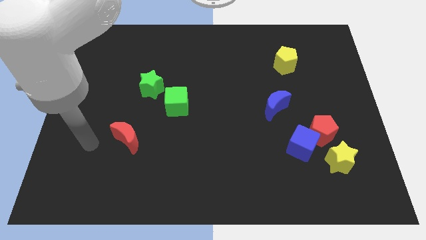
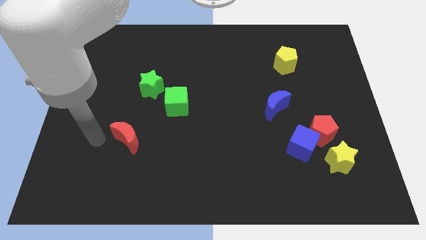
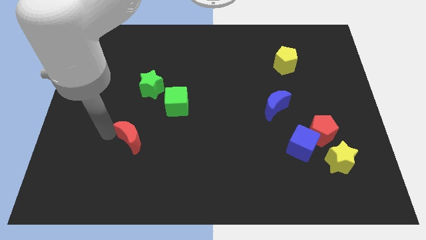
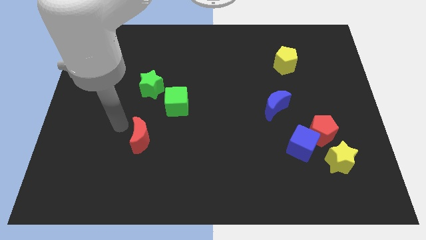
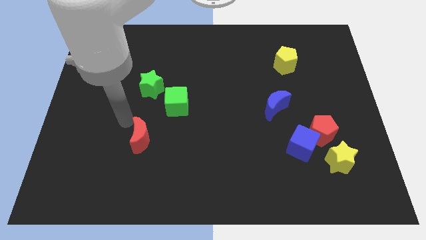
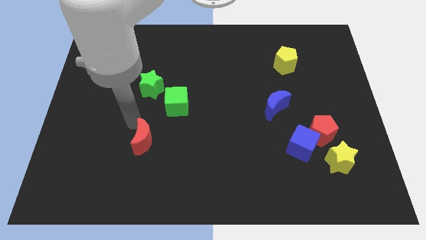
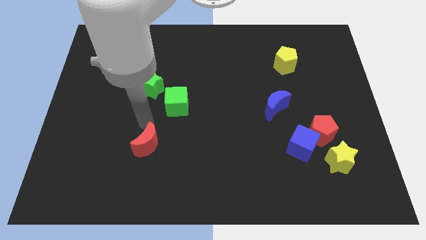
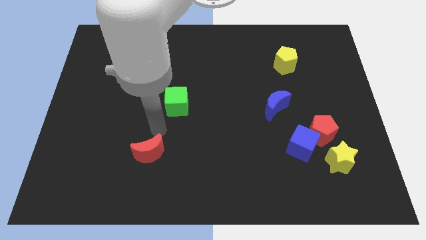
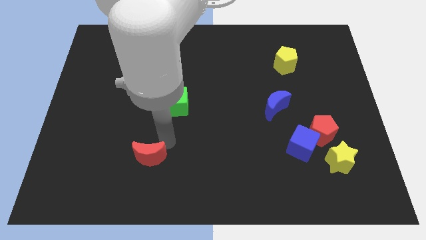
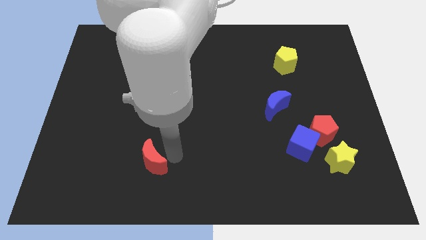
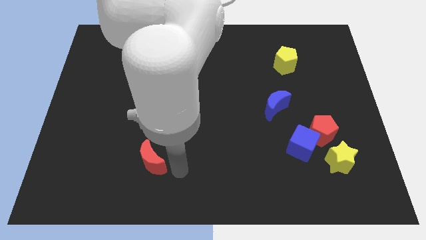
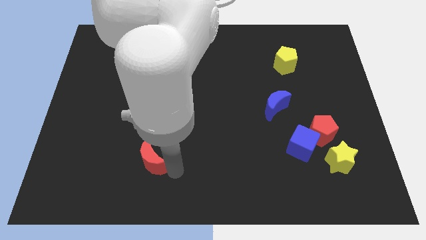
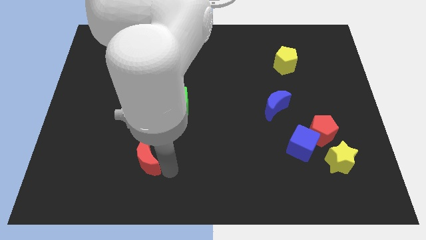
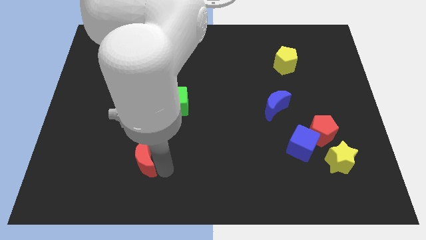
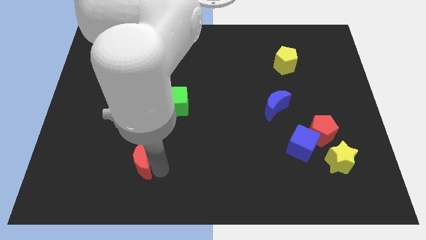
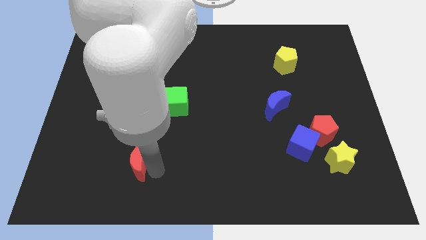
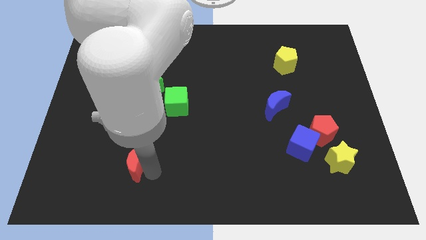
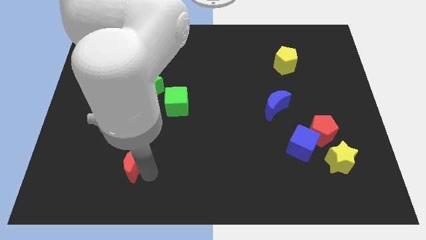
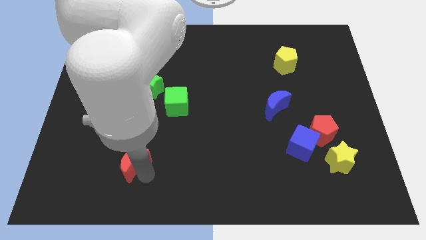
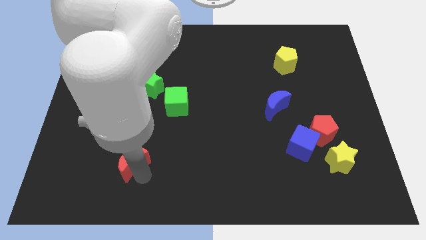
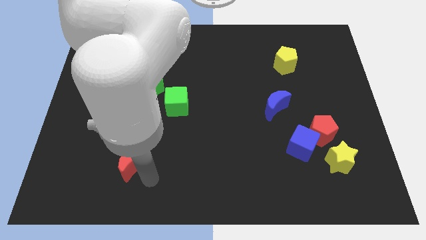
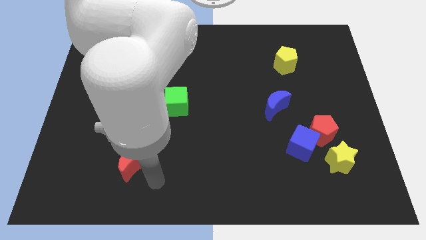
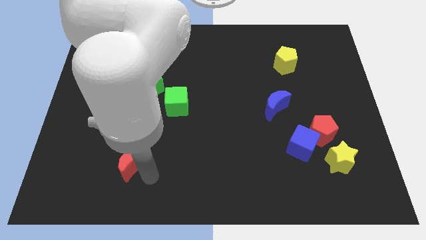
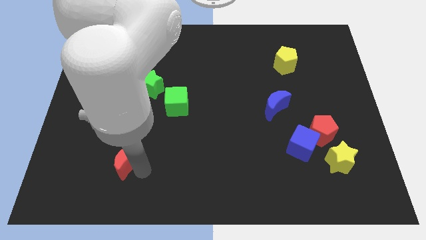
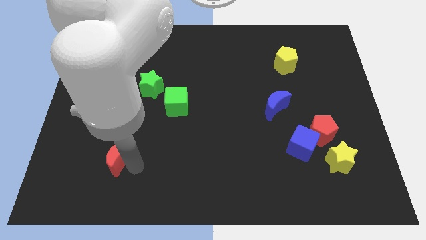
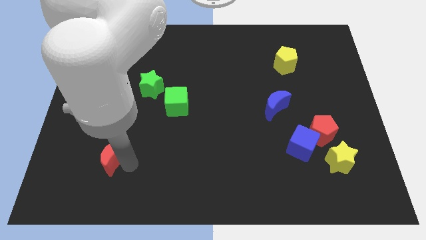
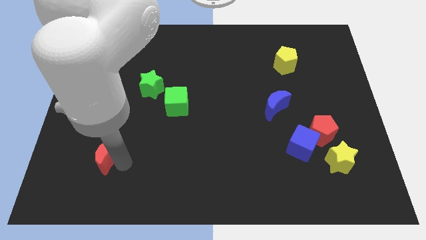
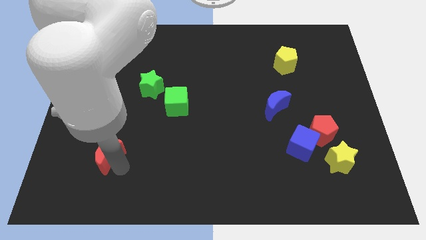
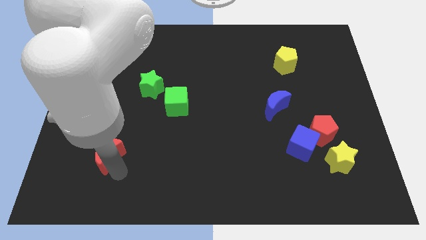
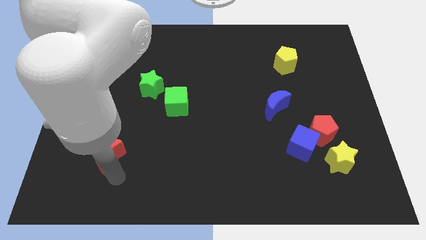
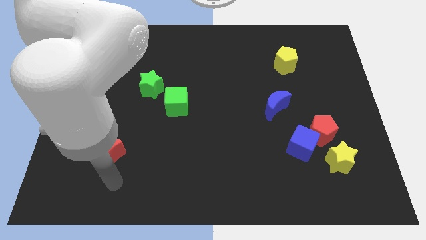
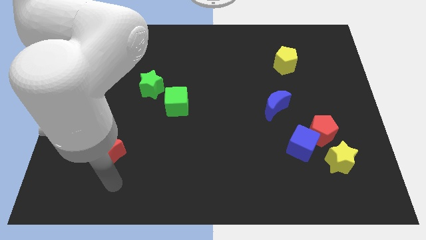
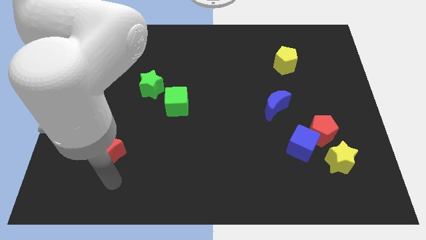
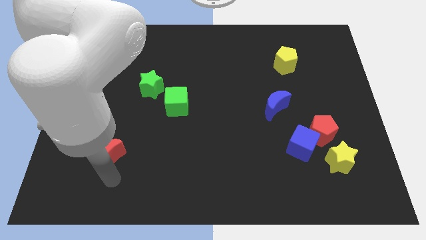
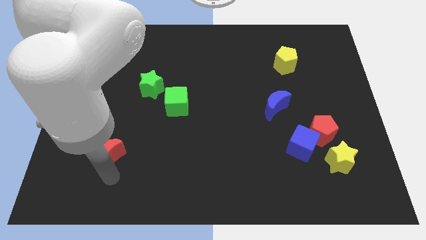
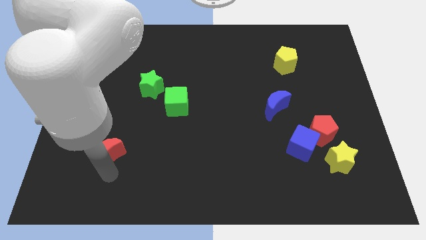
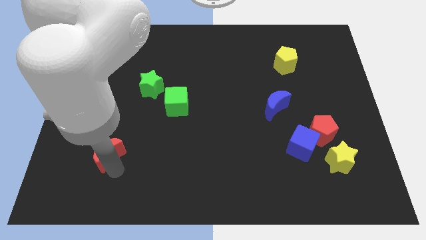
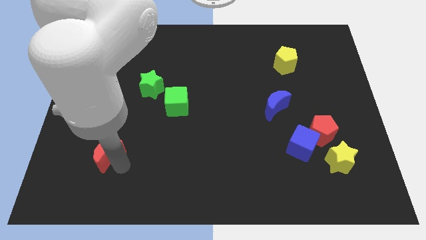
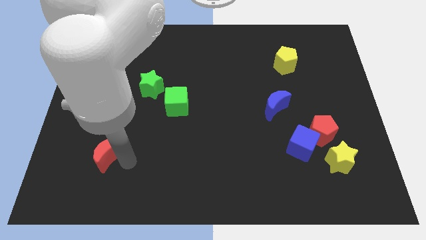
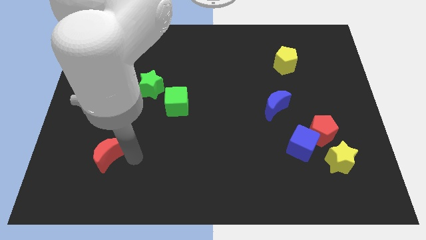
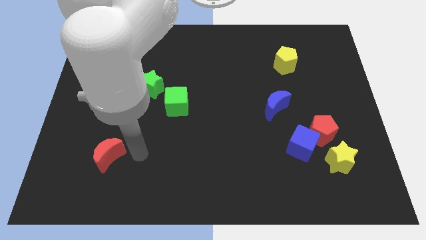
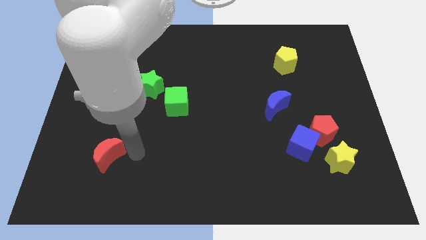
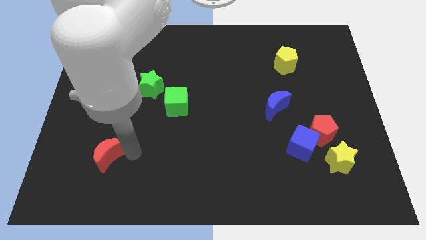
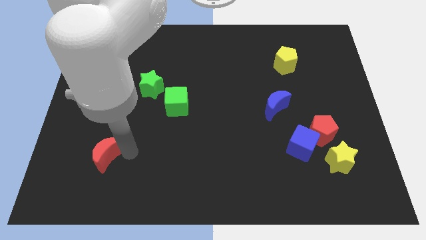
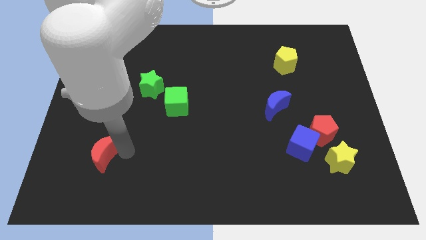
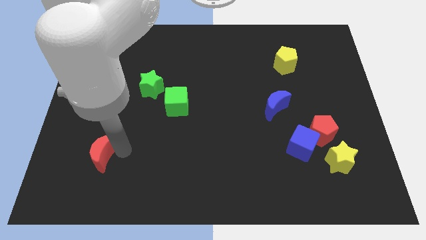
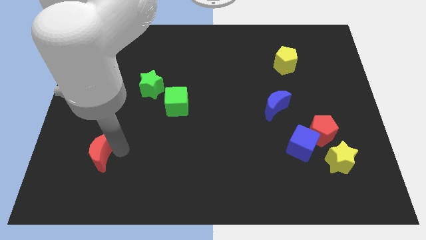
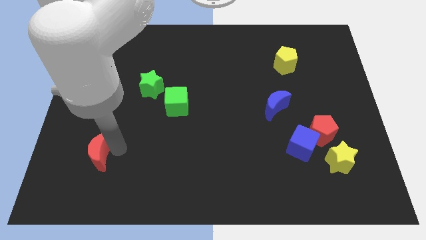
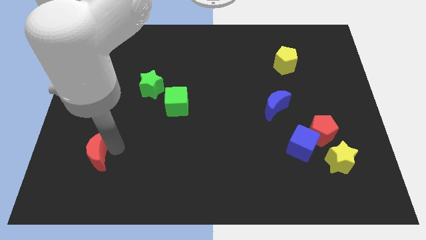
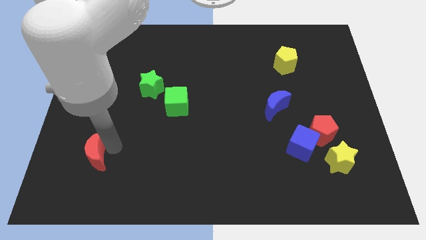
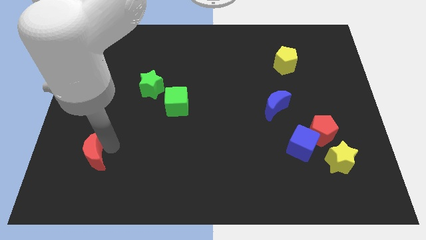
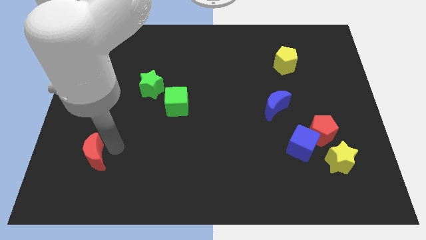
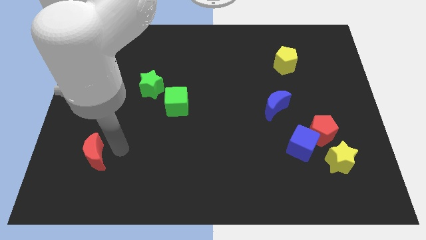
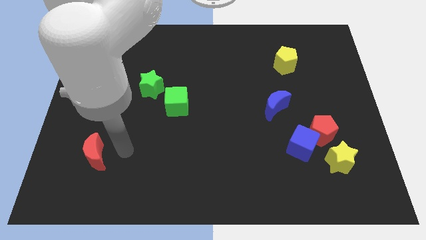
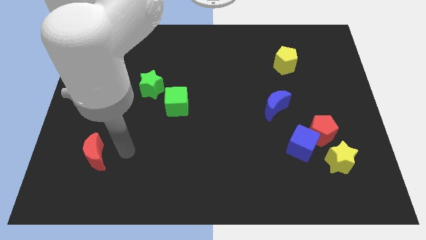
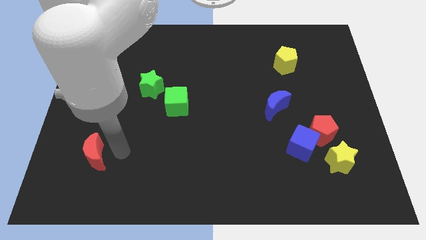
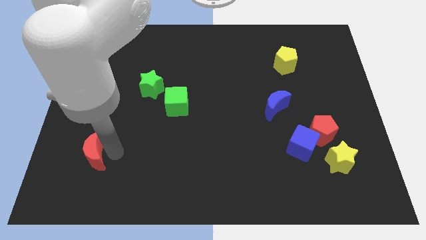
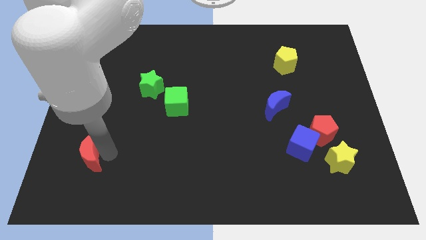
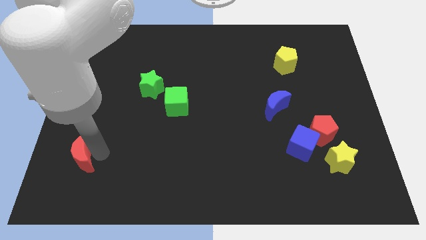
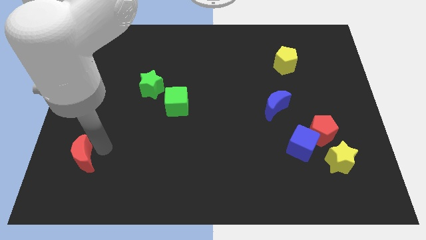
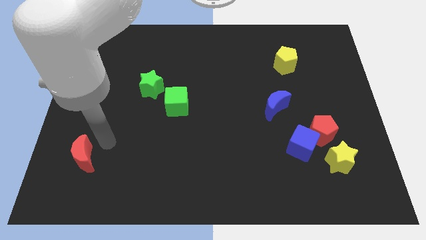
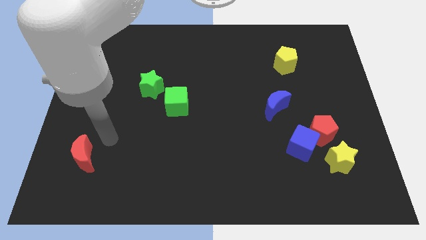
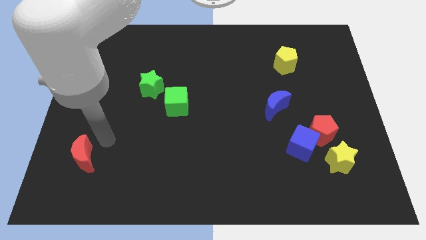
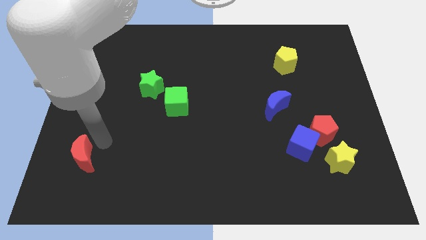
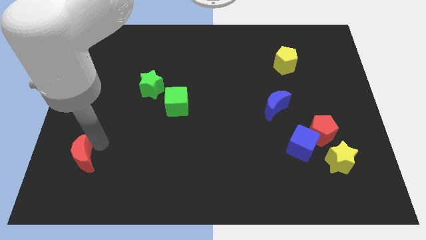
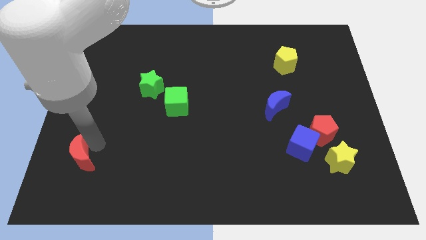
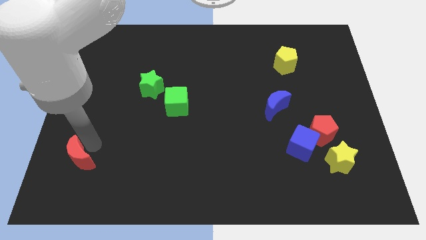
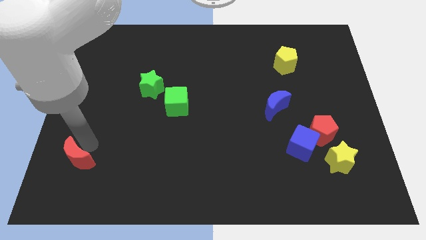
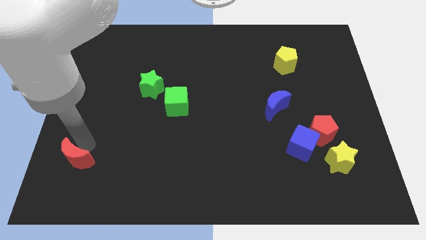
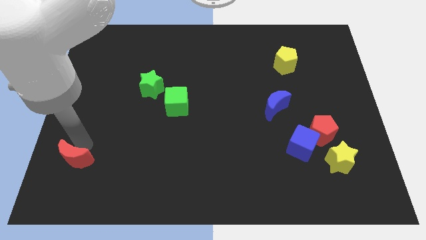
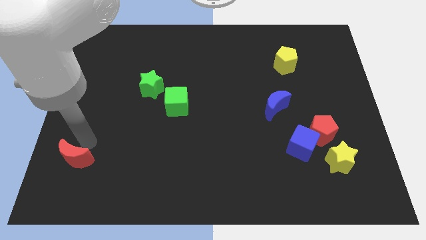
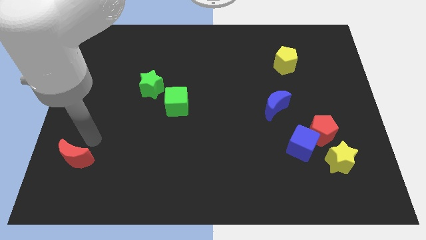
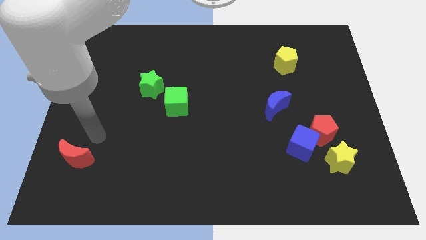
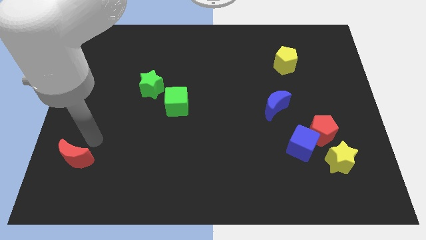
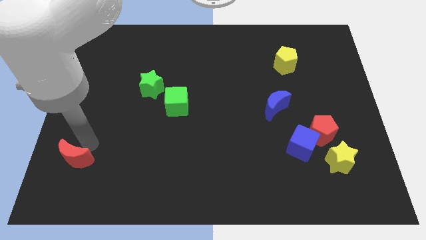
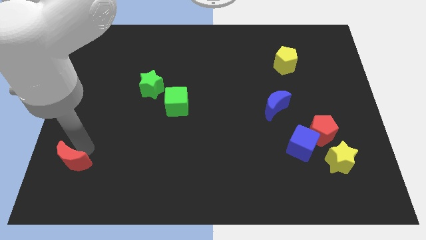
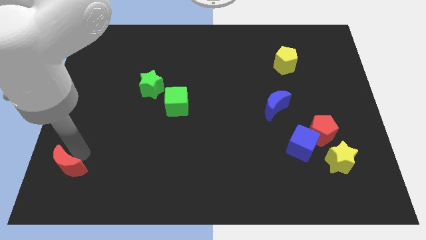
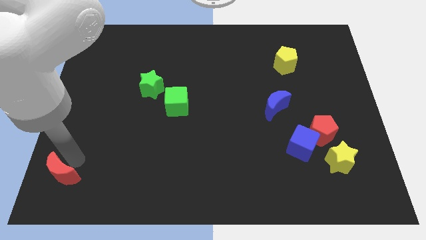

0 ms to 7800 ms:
put the red moon to the bottom left corner
